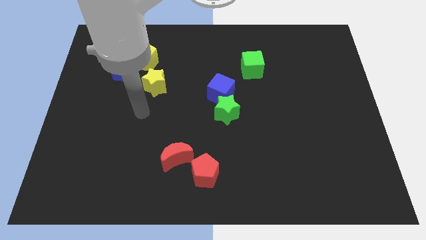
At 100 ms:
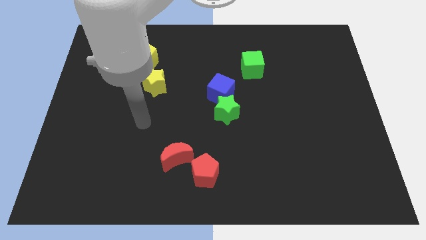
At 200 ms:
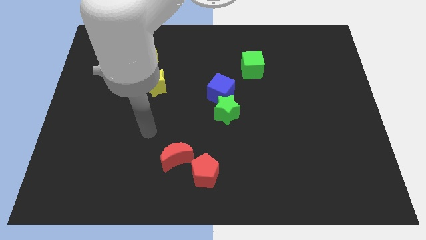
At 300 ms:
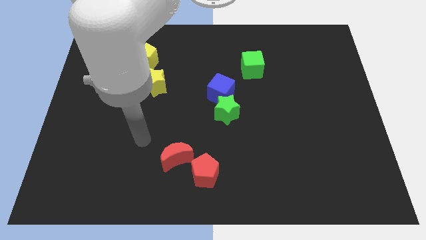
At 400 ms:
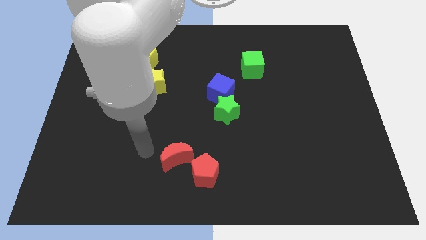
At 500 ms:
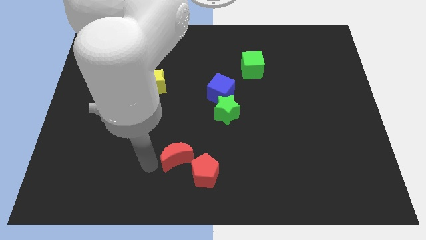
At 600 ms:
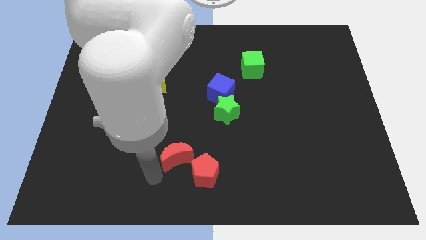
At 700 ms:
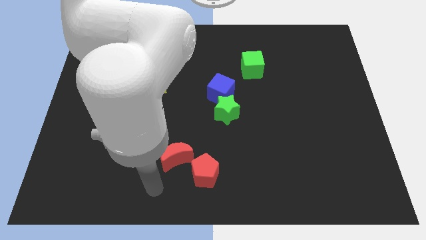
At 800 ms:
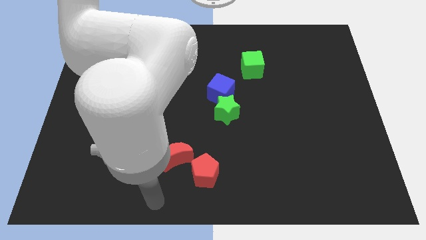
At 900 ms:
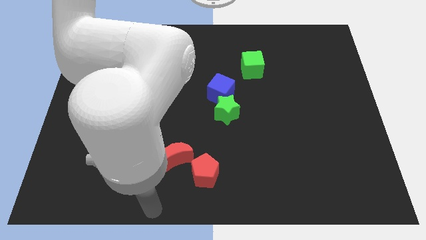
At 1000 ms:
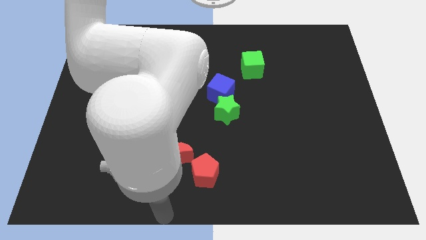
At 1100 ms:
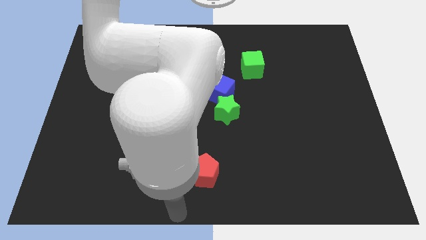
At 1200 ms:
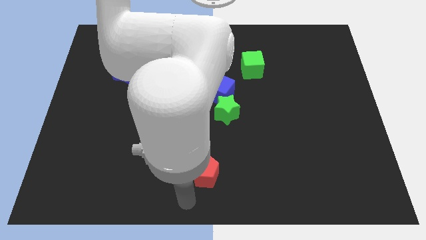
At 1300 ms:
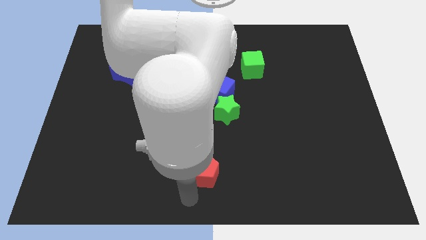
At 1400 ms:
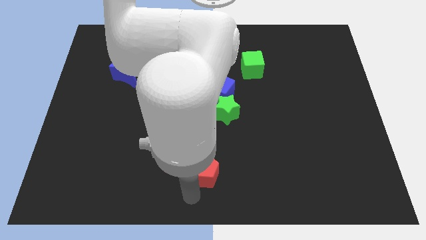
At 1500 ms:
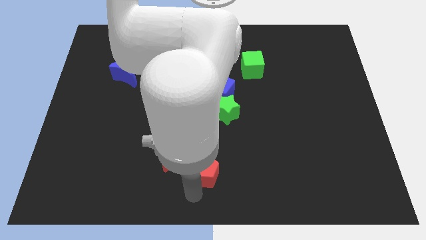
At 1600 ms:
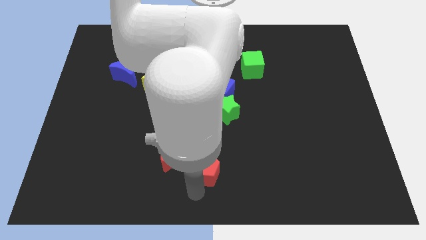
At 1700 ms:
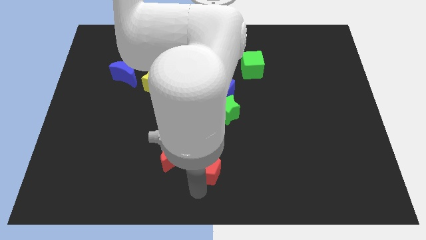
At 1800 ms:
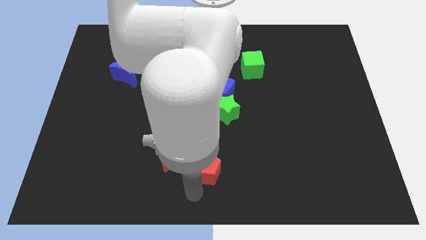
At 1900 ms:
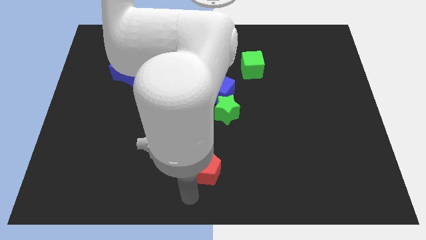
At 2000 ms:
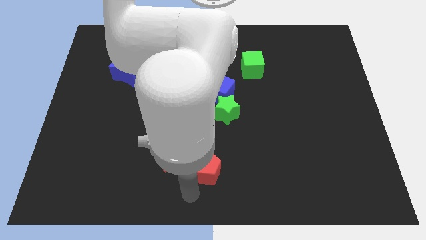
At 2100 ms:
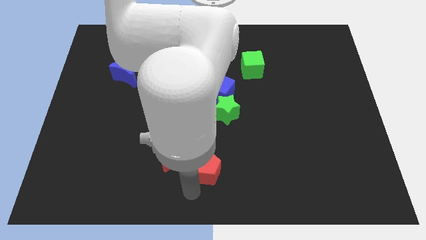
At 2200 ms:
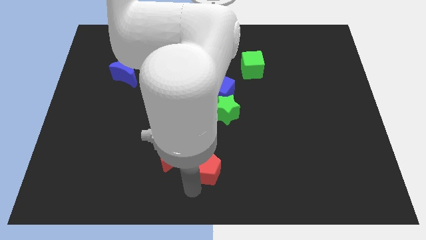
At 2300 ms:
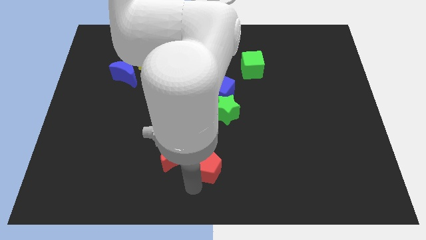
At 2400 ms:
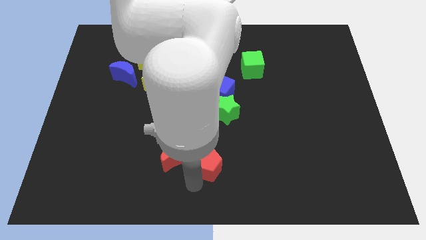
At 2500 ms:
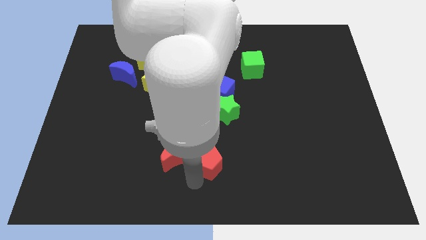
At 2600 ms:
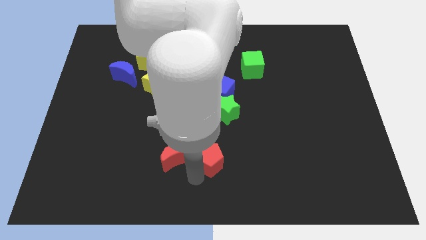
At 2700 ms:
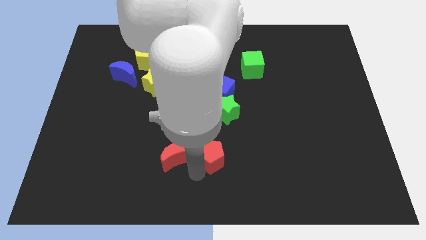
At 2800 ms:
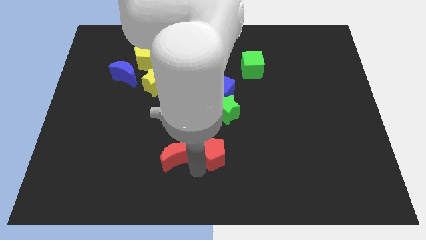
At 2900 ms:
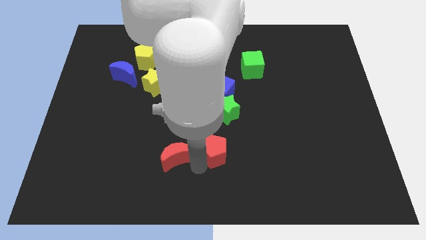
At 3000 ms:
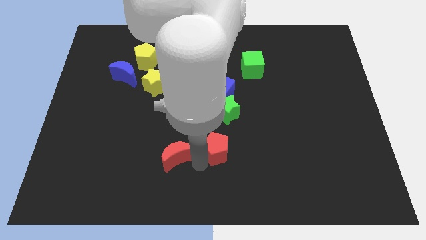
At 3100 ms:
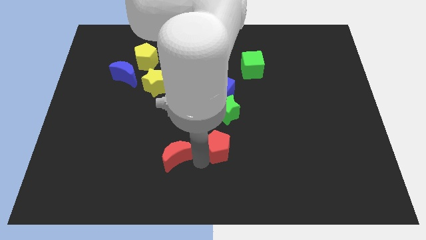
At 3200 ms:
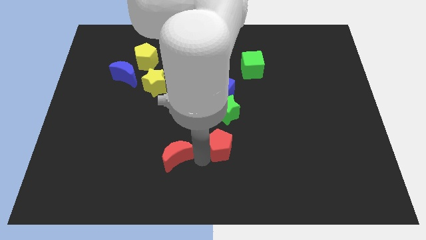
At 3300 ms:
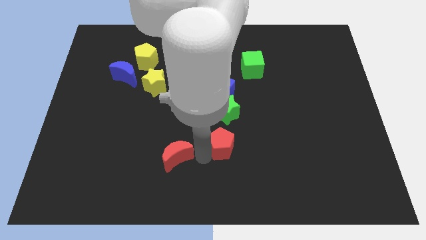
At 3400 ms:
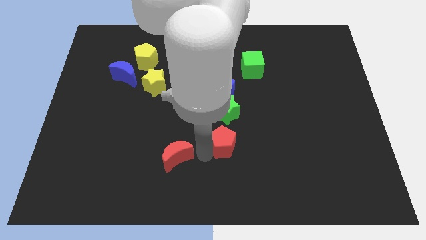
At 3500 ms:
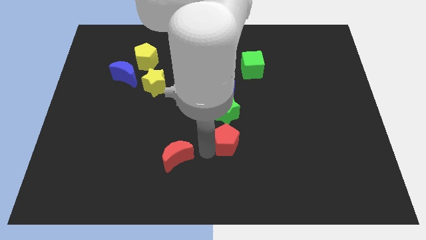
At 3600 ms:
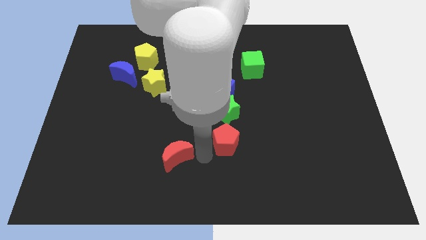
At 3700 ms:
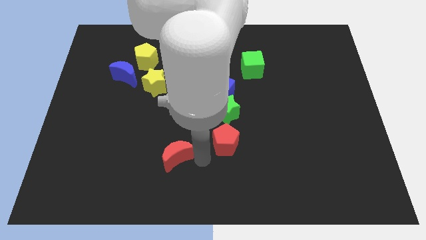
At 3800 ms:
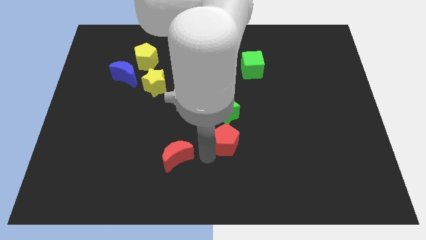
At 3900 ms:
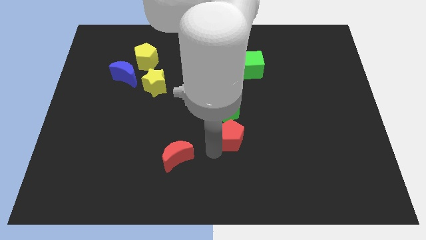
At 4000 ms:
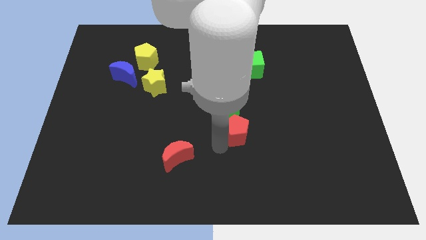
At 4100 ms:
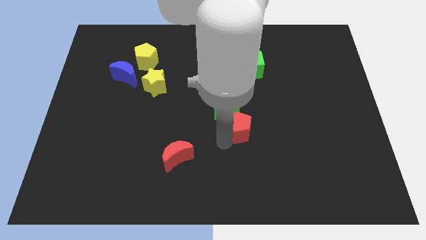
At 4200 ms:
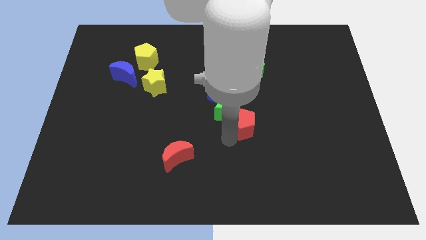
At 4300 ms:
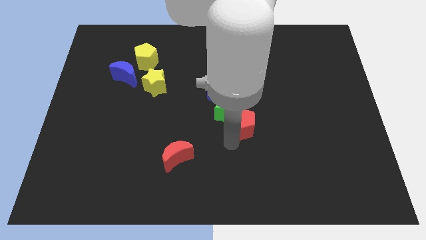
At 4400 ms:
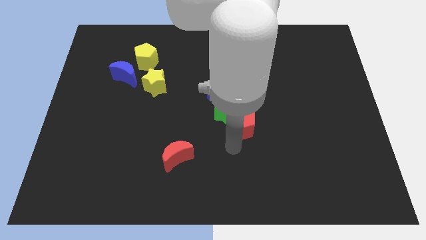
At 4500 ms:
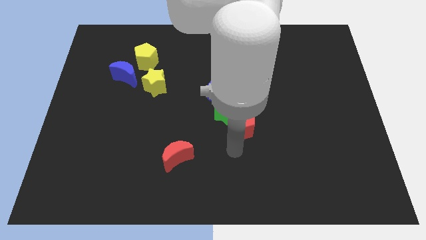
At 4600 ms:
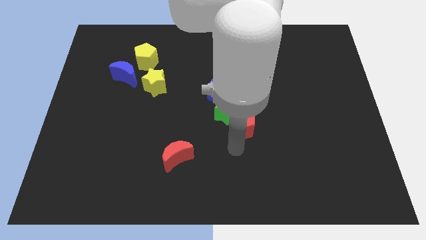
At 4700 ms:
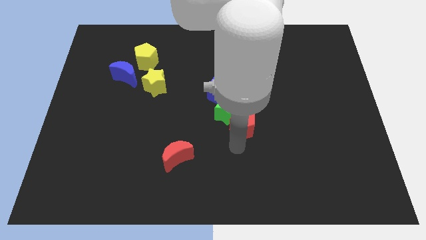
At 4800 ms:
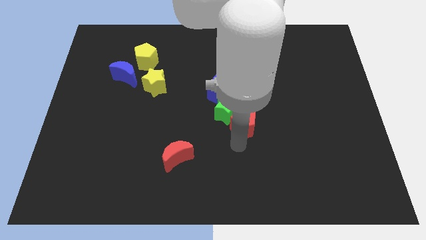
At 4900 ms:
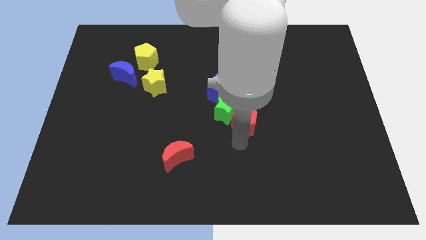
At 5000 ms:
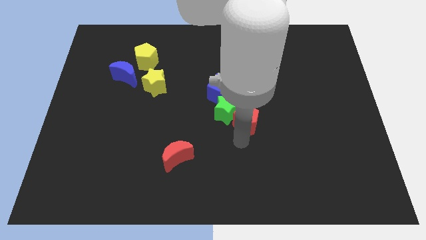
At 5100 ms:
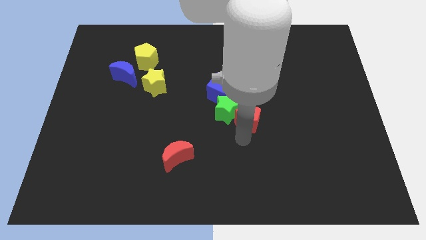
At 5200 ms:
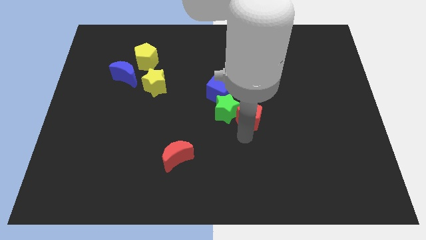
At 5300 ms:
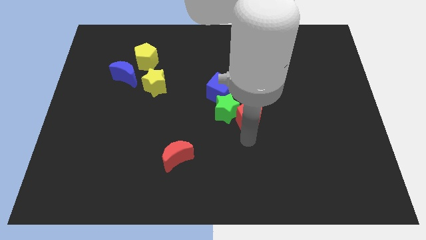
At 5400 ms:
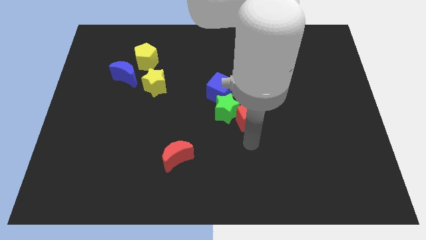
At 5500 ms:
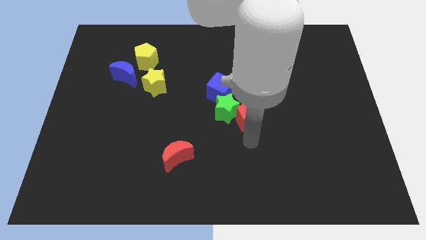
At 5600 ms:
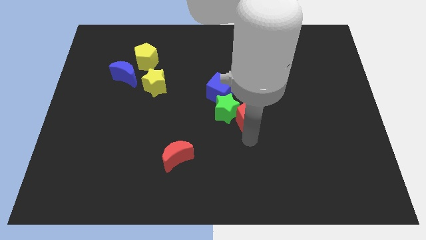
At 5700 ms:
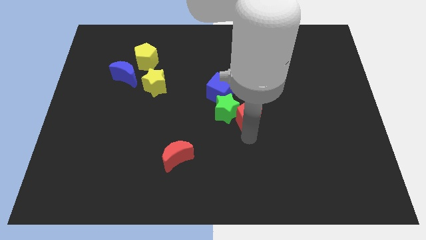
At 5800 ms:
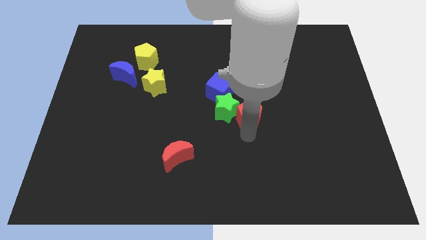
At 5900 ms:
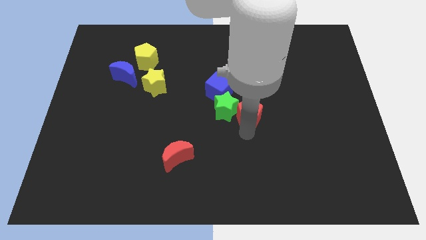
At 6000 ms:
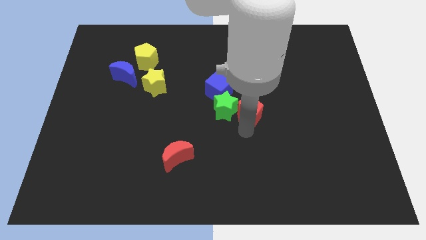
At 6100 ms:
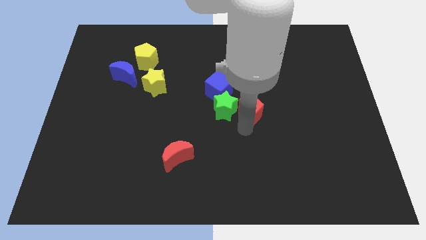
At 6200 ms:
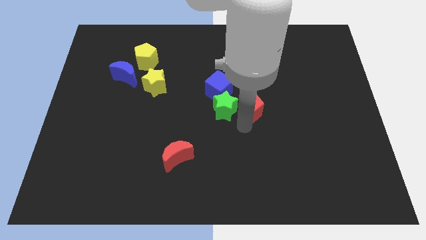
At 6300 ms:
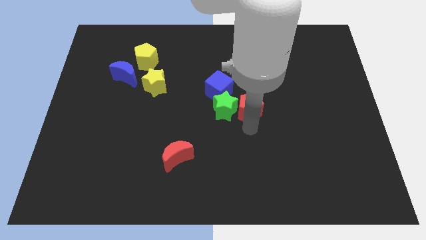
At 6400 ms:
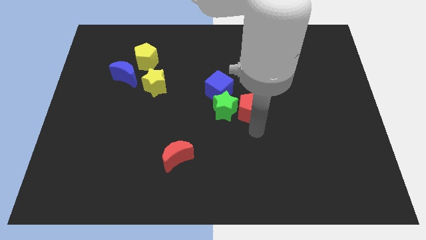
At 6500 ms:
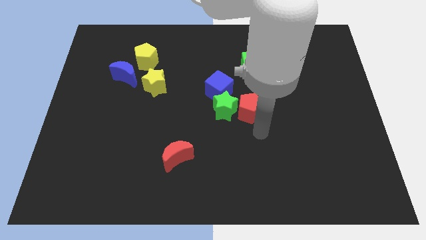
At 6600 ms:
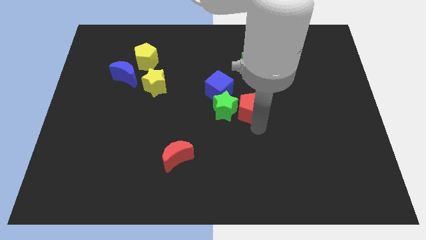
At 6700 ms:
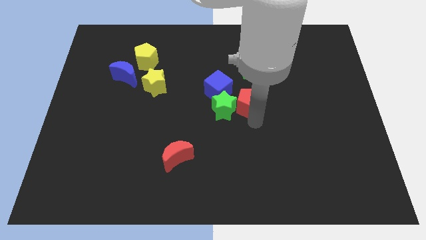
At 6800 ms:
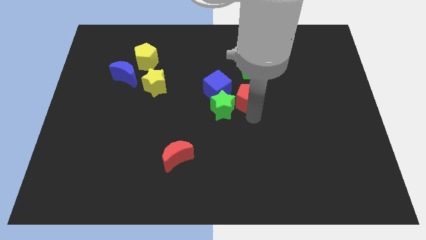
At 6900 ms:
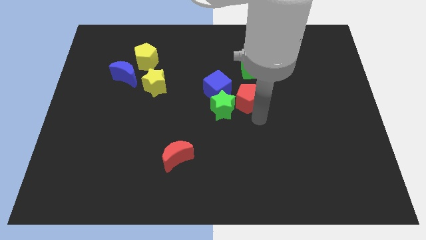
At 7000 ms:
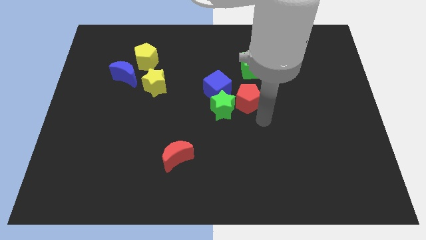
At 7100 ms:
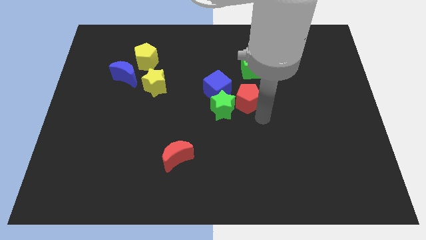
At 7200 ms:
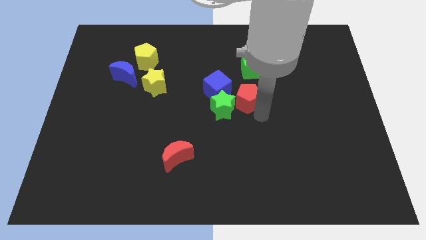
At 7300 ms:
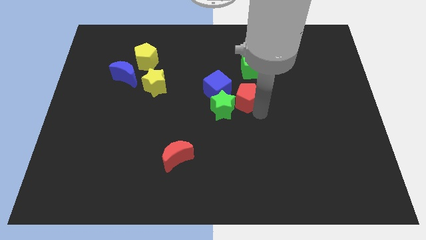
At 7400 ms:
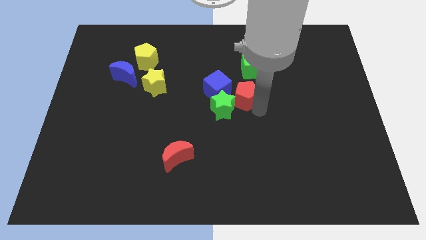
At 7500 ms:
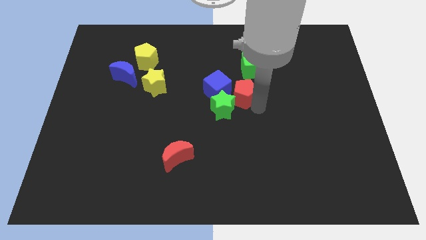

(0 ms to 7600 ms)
put the red pentagon to the bottom left side of the green cube
